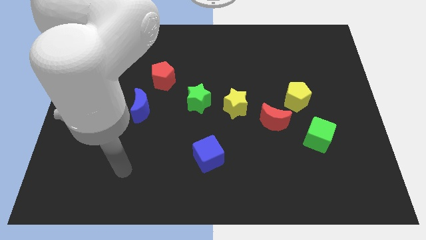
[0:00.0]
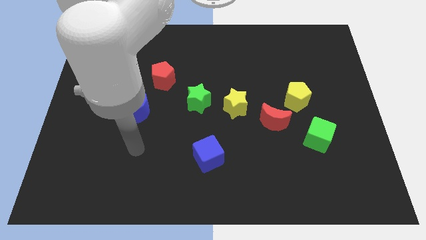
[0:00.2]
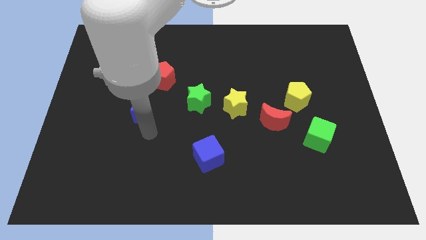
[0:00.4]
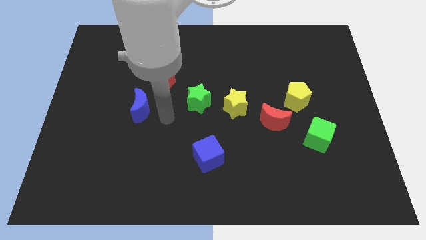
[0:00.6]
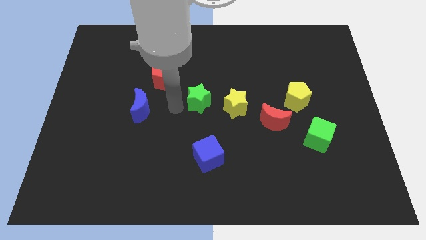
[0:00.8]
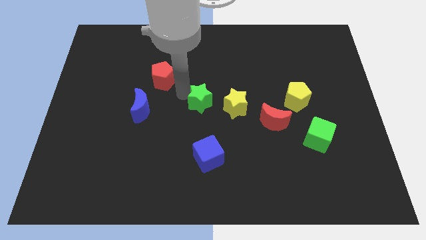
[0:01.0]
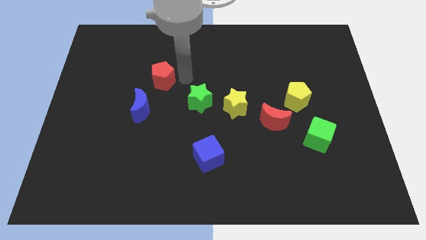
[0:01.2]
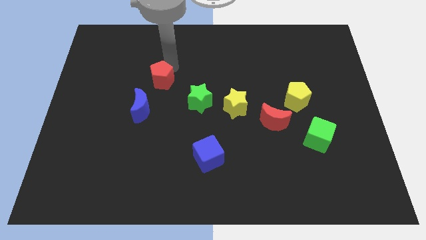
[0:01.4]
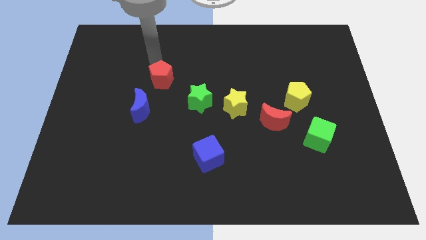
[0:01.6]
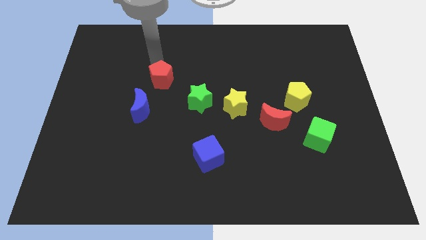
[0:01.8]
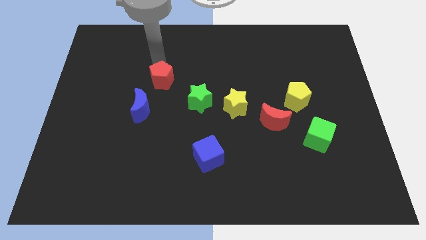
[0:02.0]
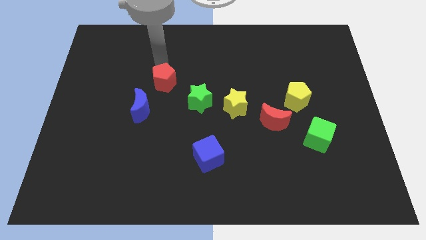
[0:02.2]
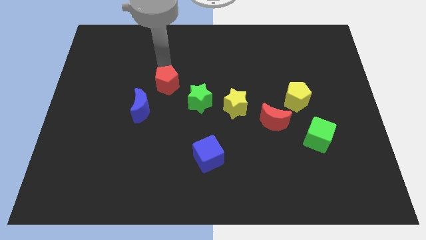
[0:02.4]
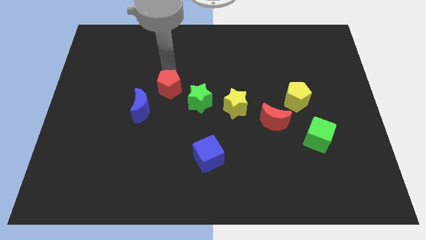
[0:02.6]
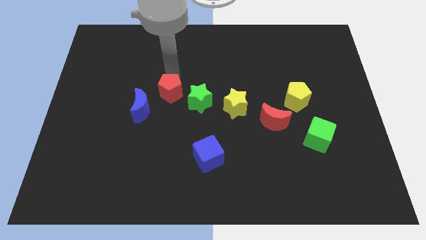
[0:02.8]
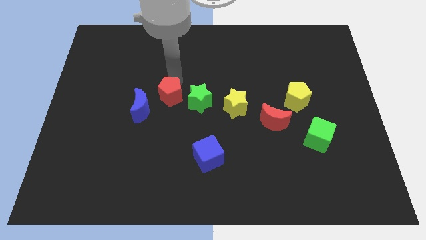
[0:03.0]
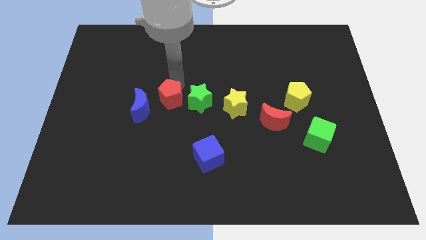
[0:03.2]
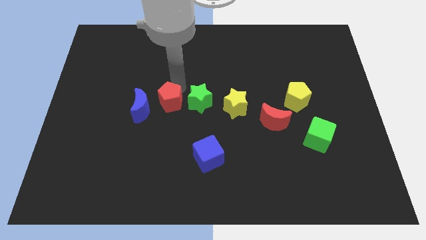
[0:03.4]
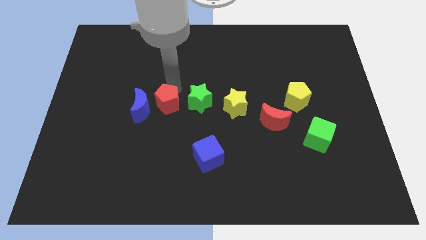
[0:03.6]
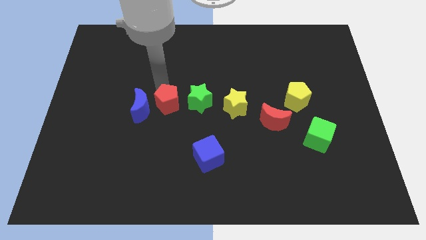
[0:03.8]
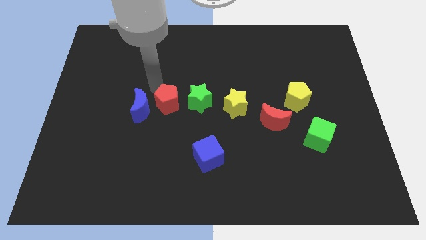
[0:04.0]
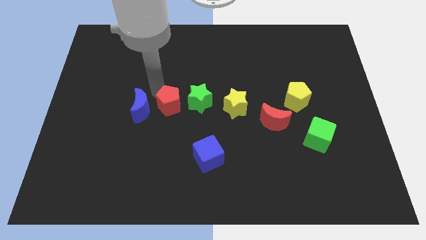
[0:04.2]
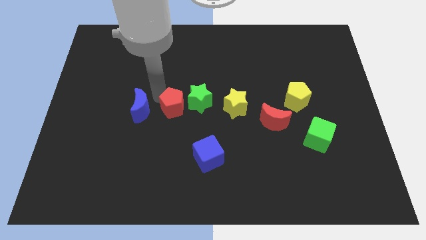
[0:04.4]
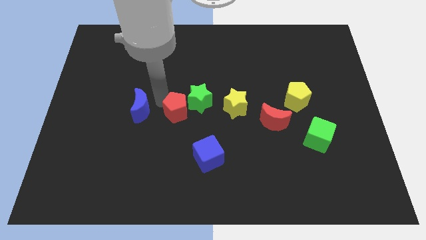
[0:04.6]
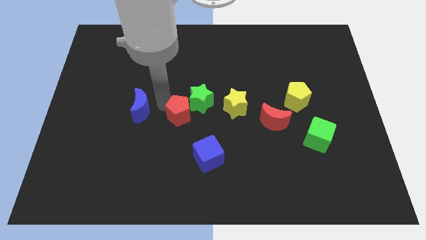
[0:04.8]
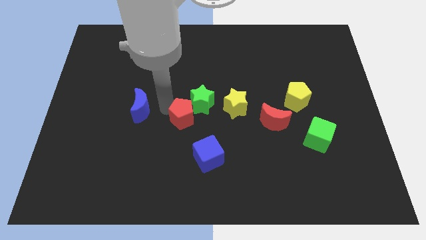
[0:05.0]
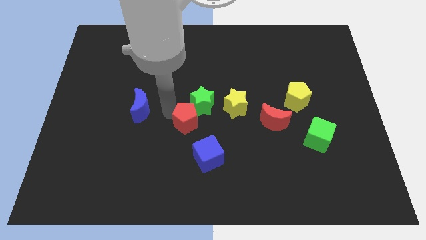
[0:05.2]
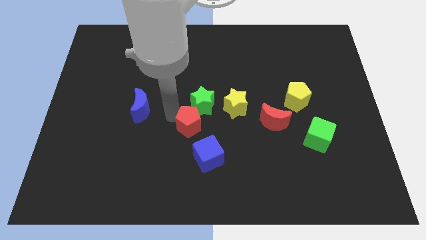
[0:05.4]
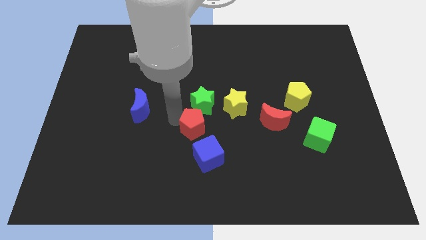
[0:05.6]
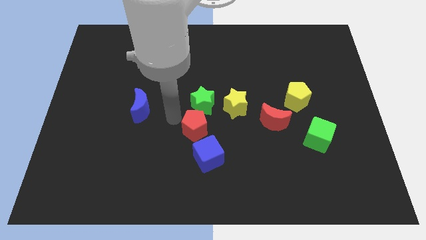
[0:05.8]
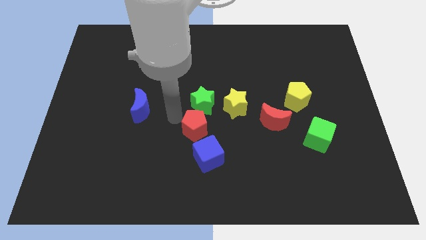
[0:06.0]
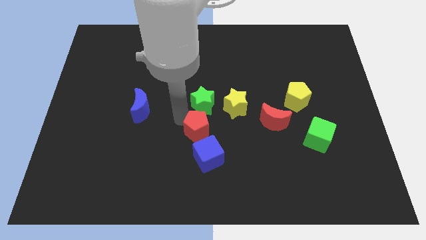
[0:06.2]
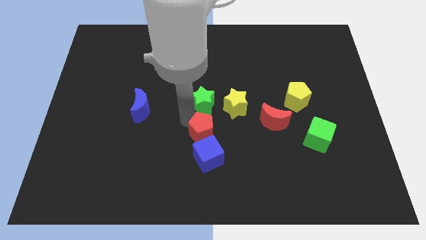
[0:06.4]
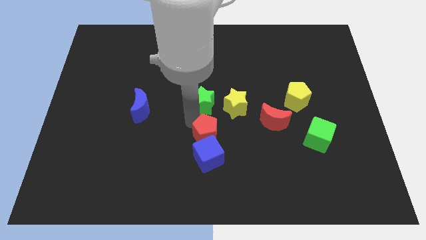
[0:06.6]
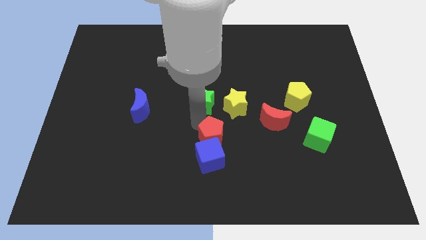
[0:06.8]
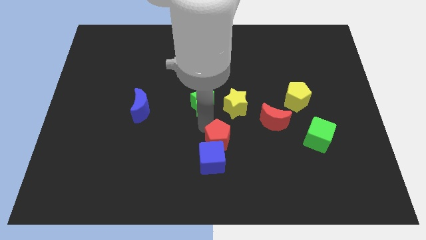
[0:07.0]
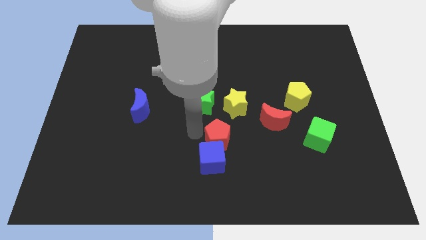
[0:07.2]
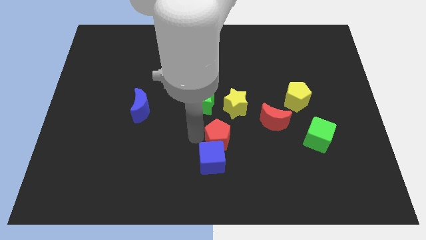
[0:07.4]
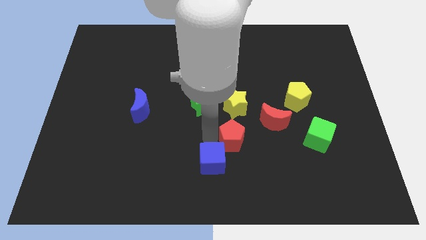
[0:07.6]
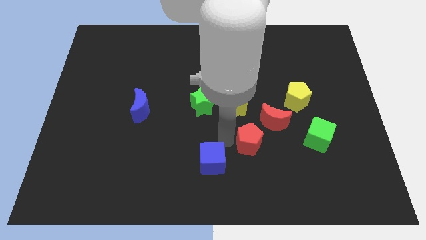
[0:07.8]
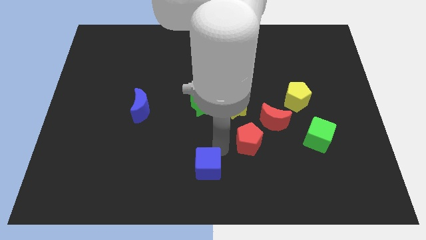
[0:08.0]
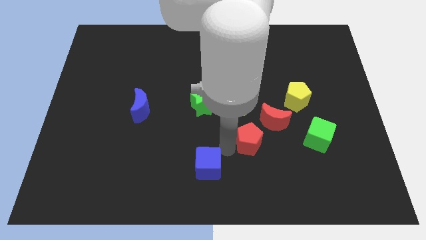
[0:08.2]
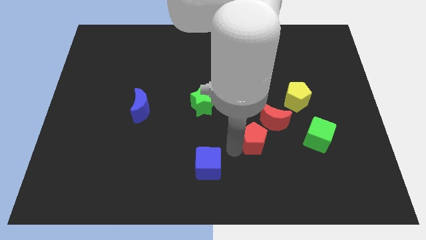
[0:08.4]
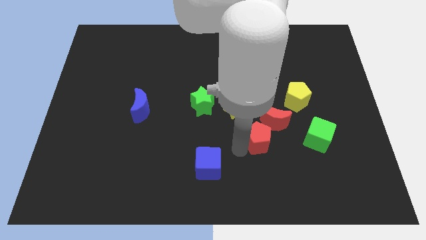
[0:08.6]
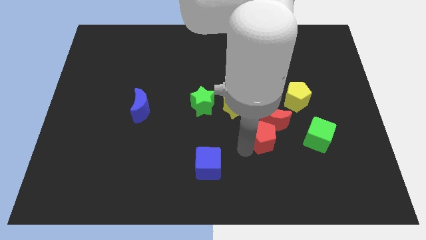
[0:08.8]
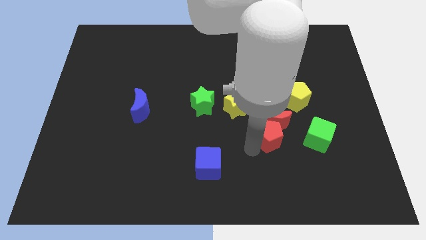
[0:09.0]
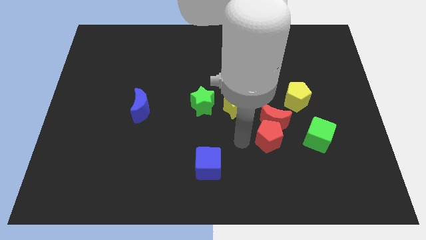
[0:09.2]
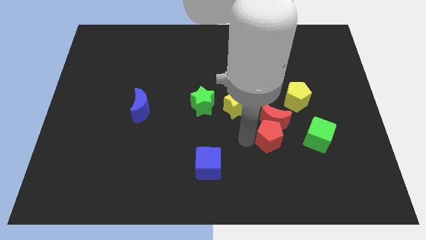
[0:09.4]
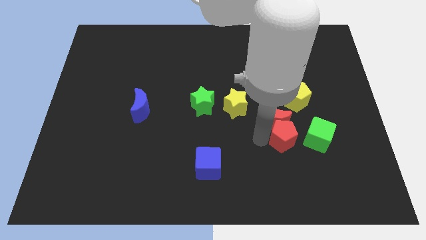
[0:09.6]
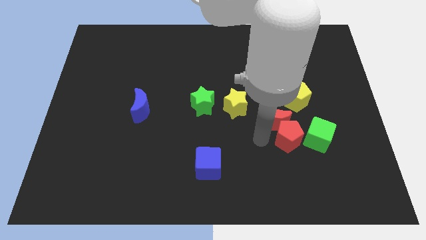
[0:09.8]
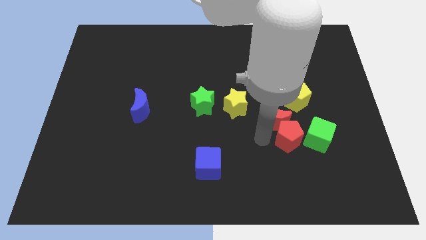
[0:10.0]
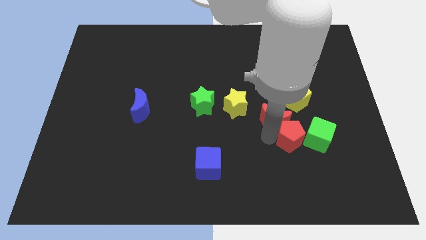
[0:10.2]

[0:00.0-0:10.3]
put the red pentagon close to the green cube

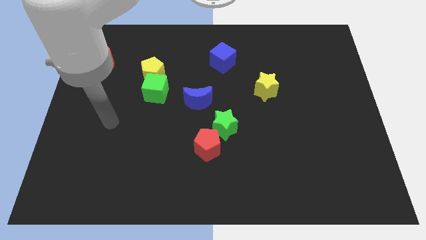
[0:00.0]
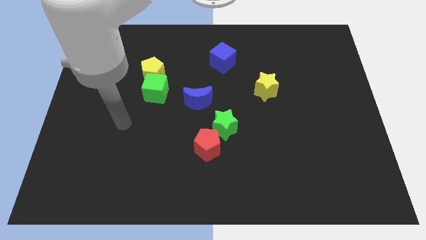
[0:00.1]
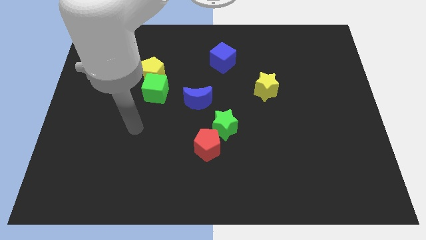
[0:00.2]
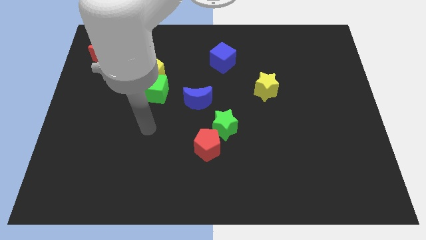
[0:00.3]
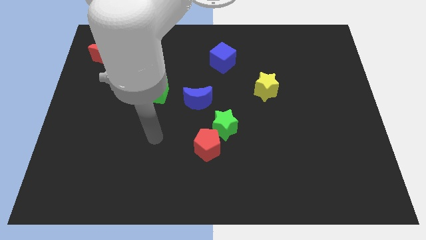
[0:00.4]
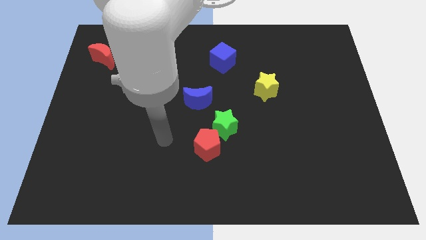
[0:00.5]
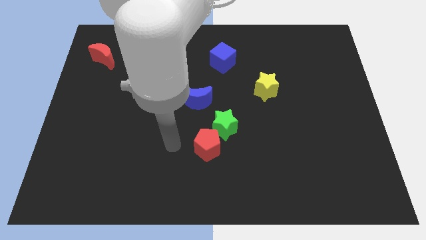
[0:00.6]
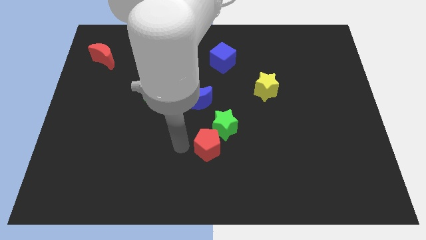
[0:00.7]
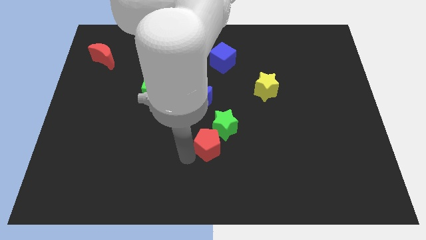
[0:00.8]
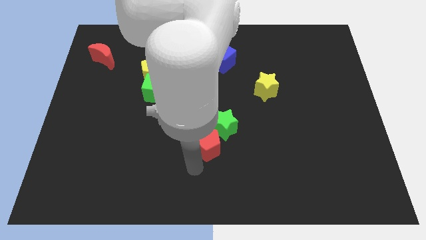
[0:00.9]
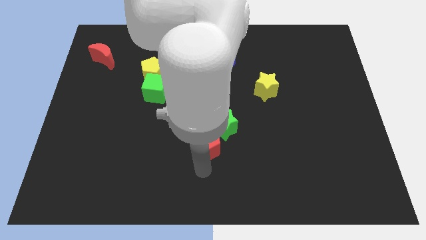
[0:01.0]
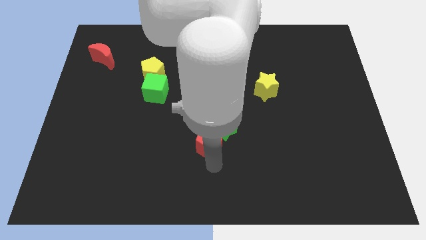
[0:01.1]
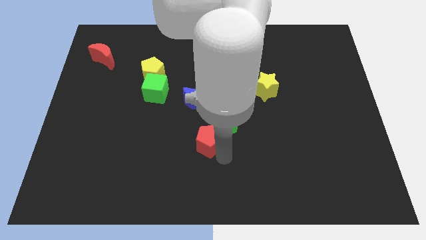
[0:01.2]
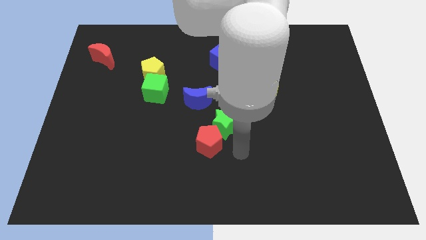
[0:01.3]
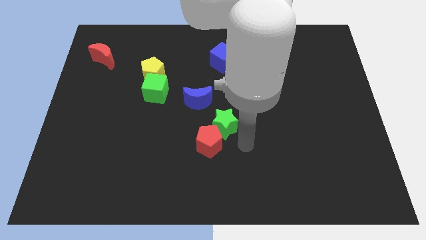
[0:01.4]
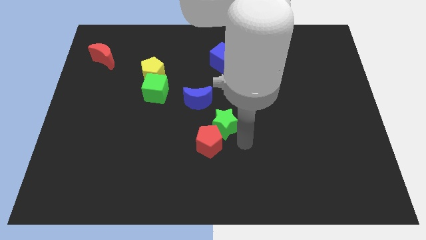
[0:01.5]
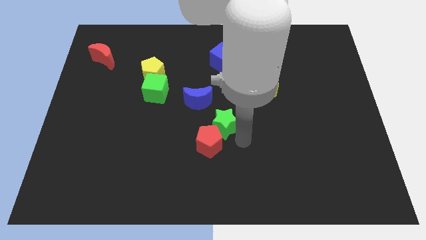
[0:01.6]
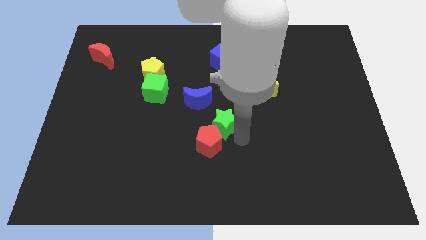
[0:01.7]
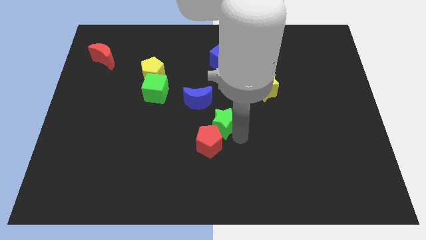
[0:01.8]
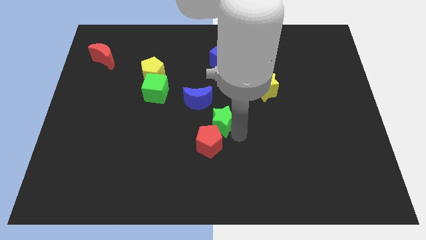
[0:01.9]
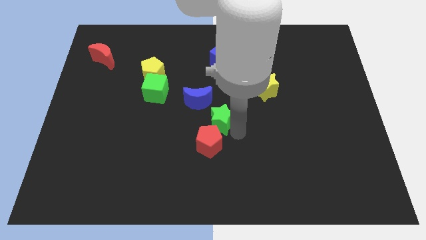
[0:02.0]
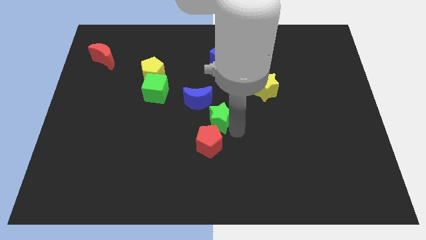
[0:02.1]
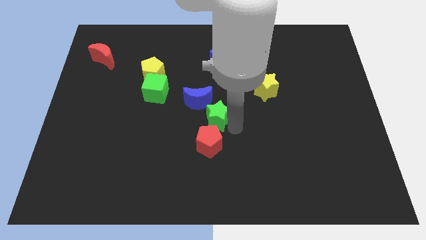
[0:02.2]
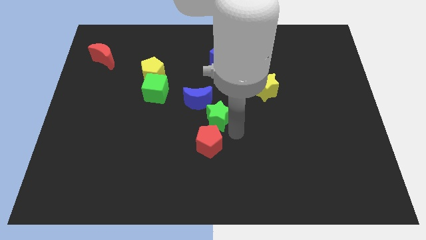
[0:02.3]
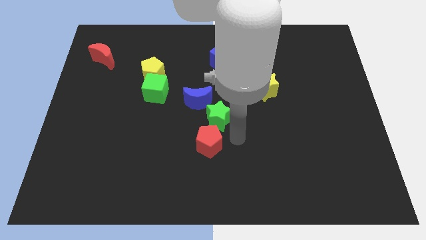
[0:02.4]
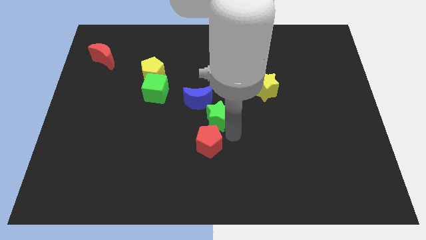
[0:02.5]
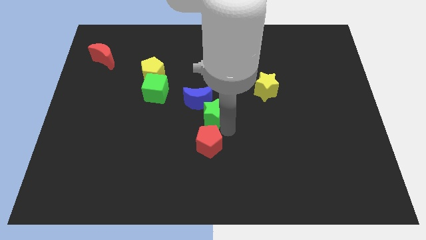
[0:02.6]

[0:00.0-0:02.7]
push the green star to the blue moon
